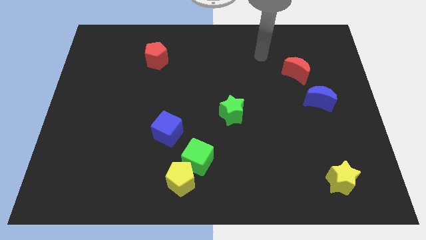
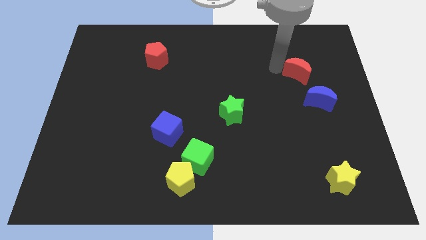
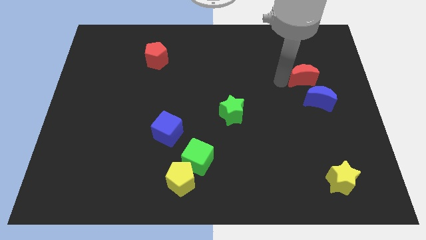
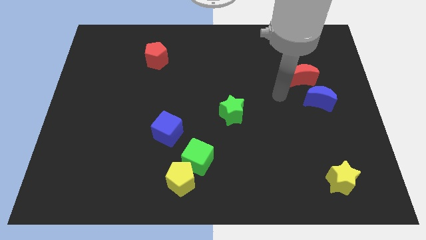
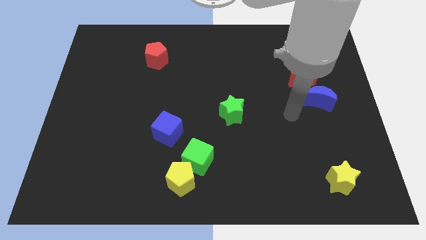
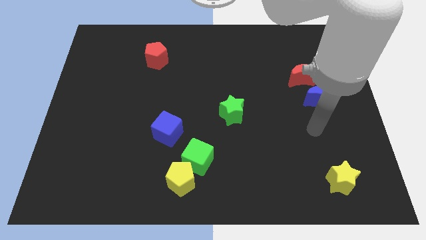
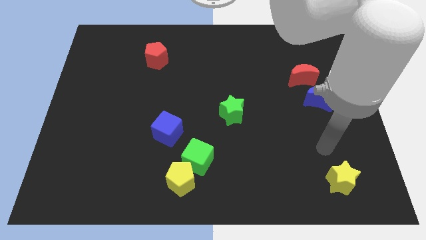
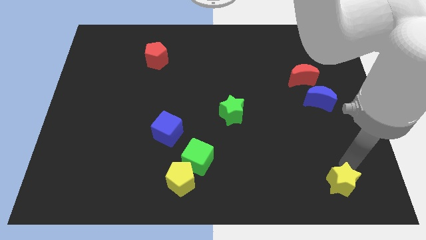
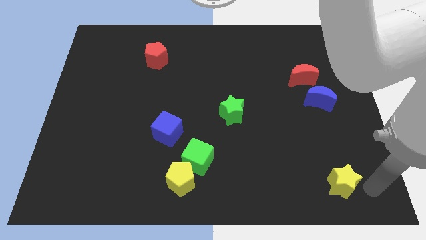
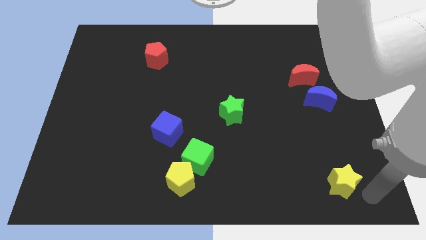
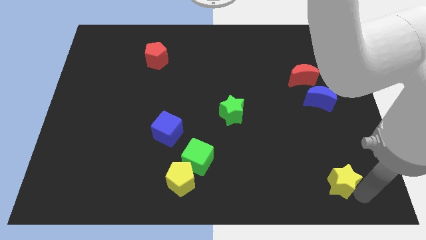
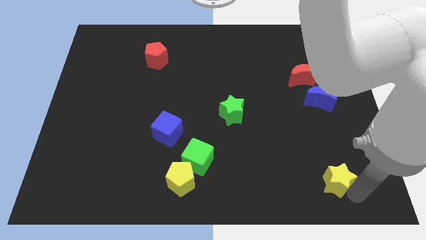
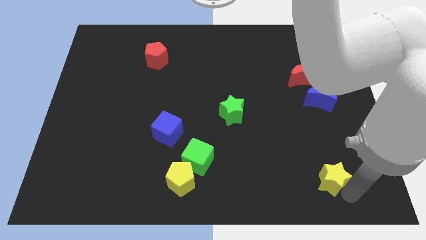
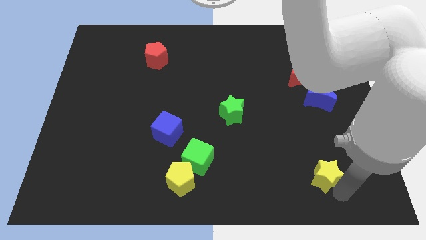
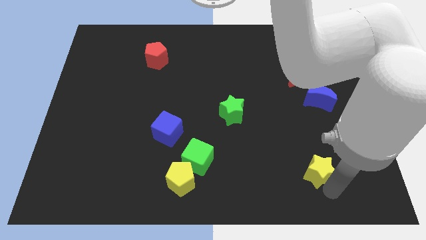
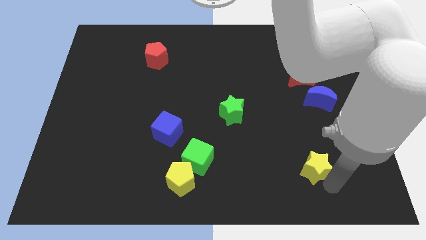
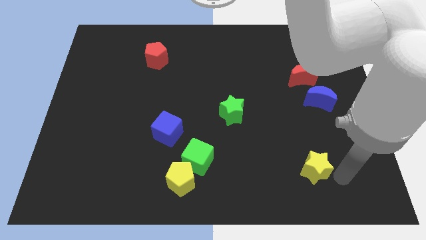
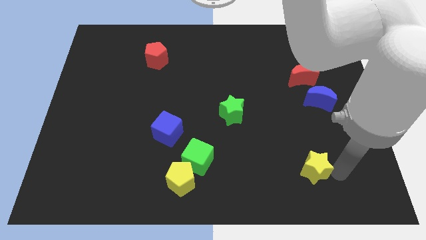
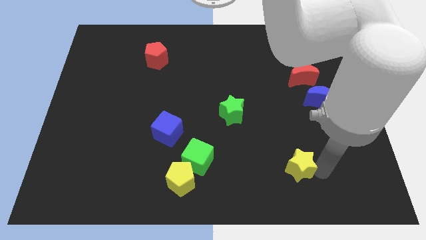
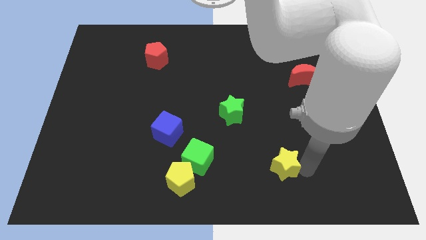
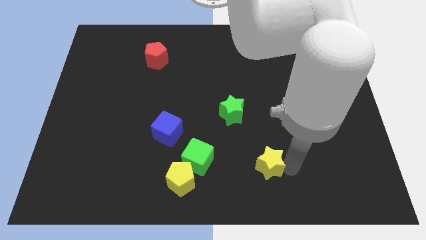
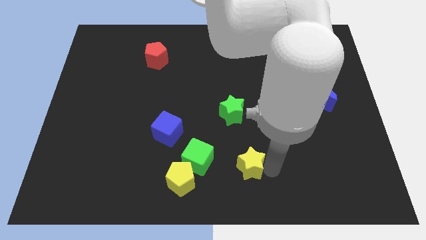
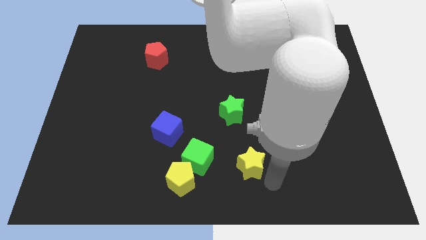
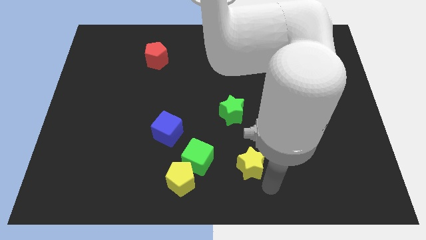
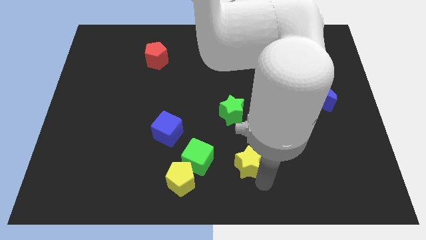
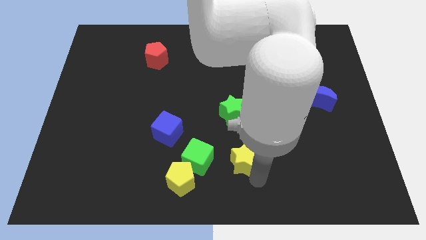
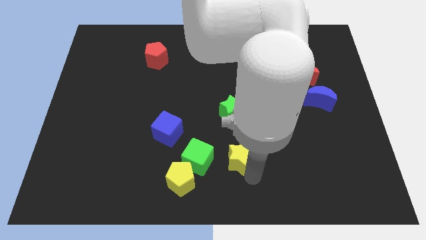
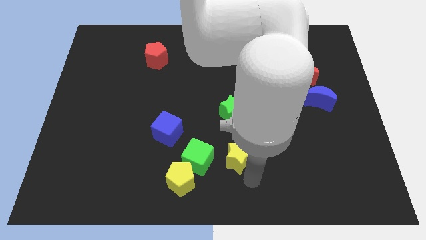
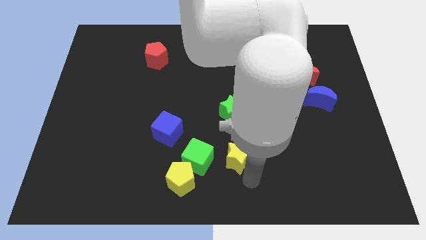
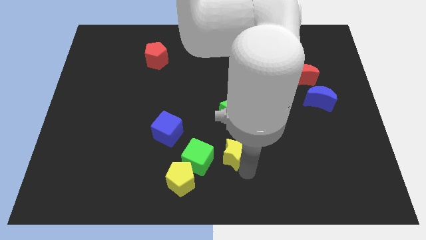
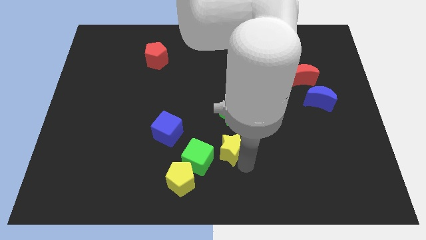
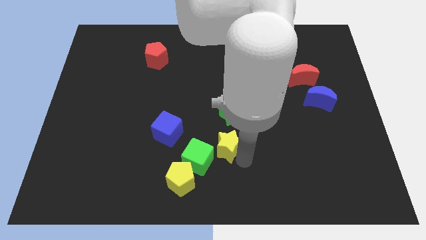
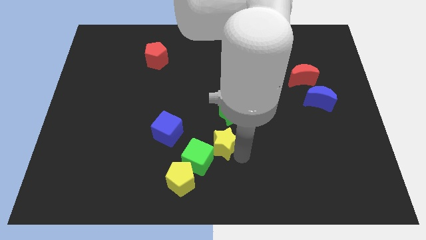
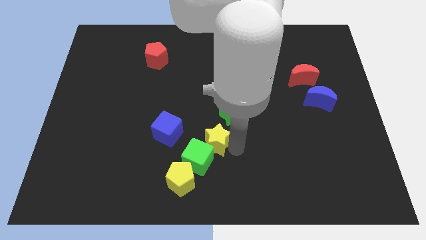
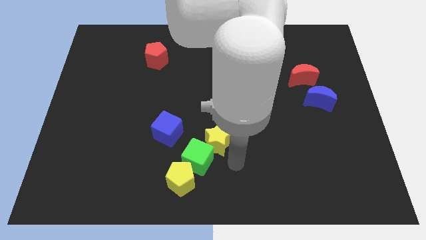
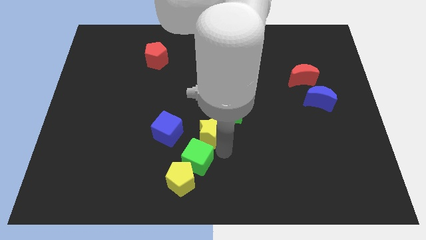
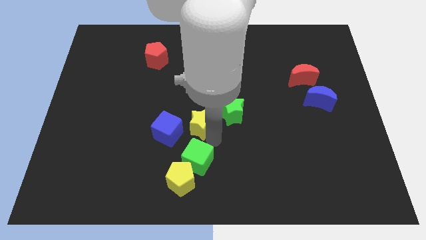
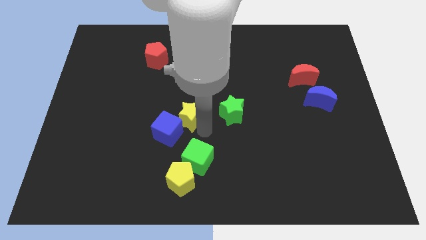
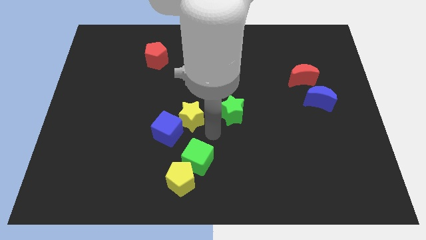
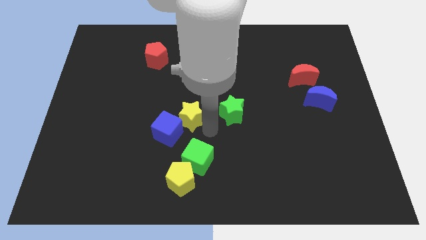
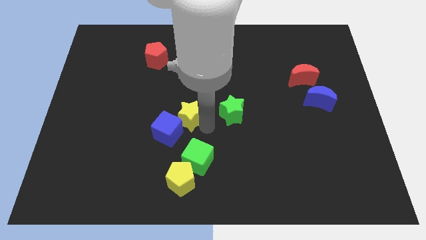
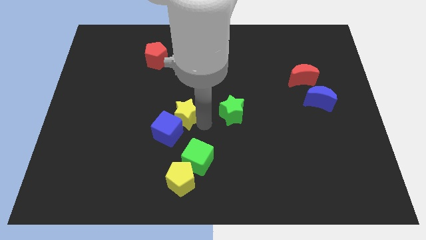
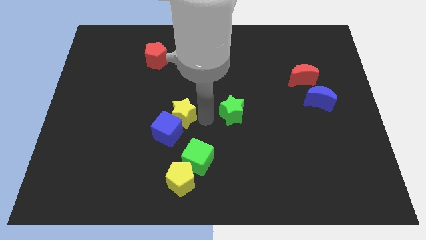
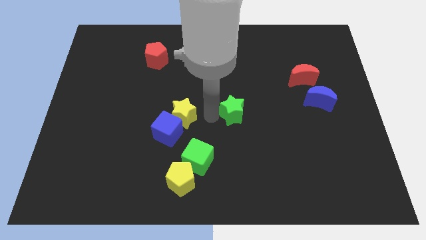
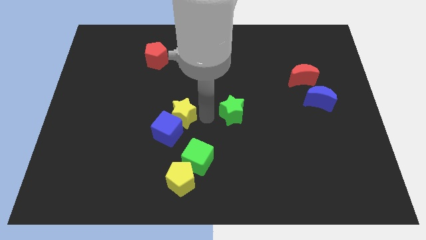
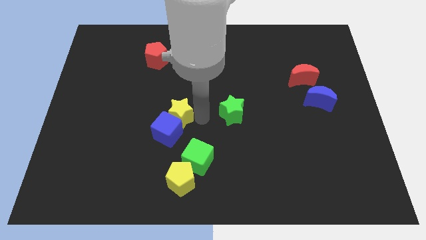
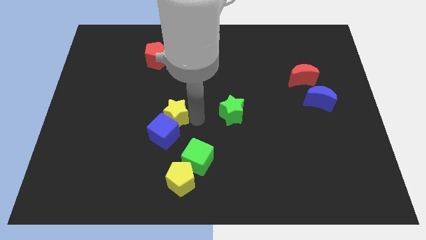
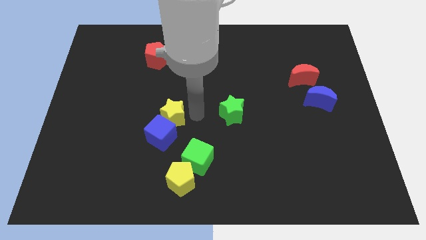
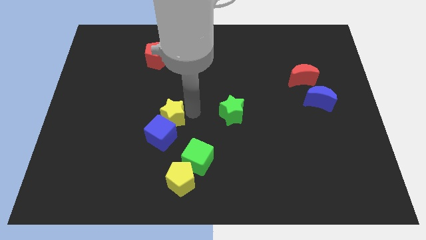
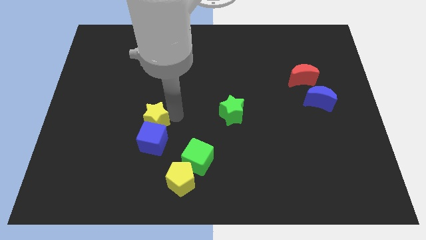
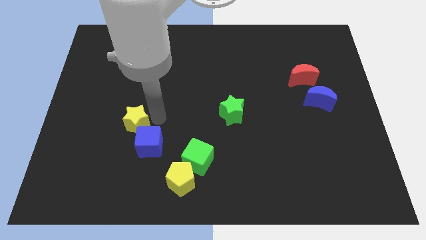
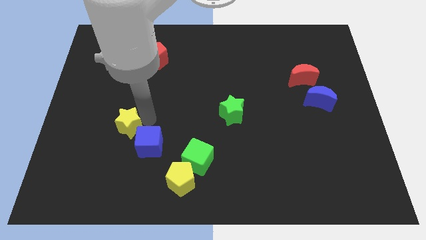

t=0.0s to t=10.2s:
move the yellow star left of the blue cube

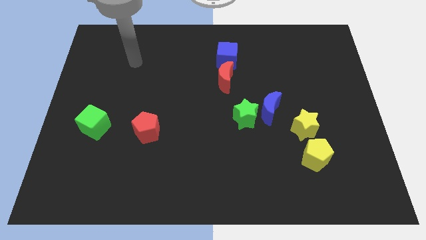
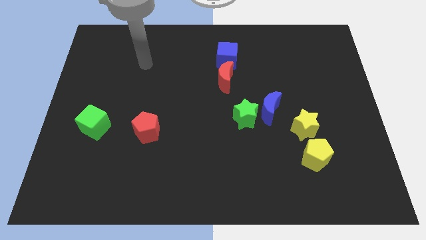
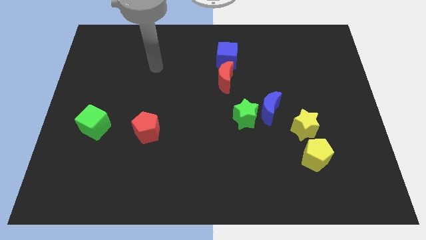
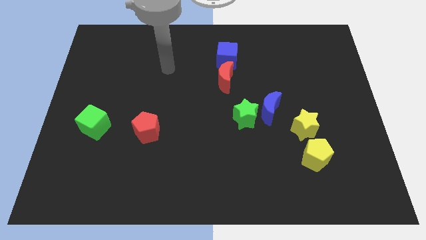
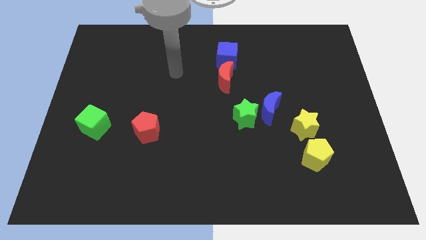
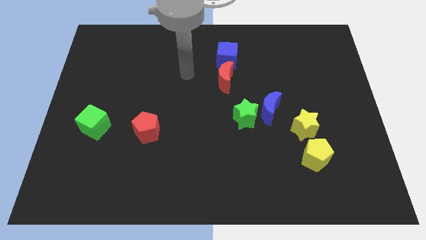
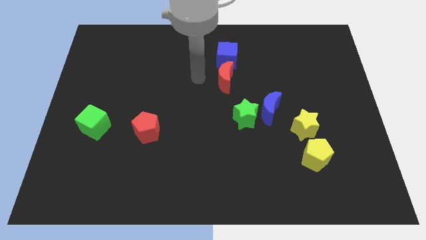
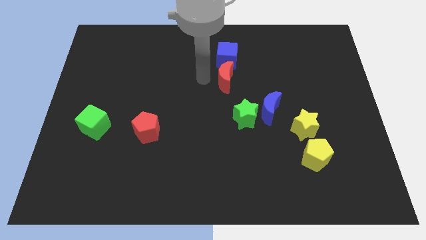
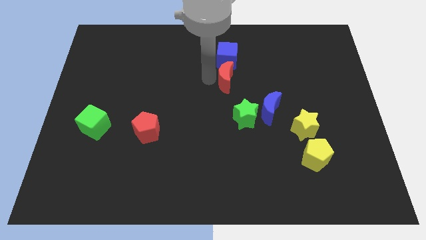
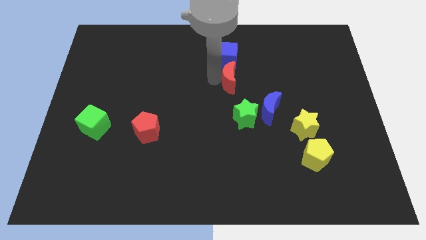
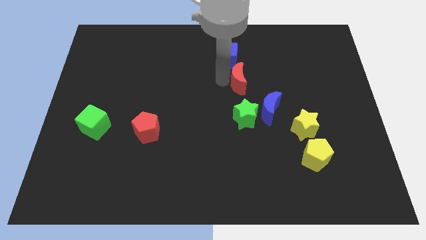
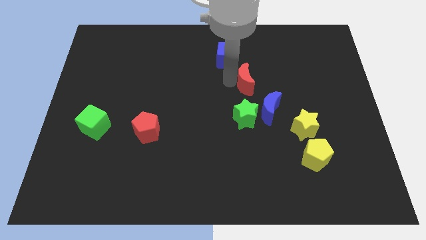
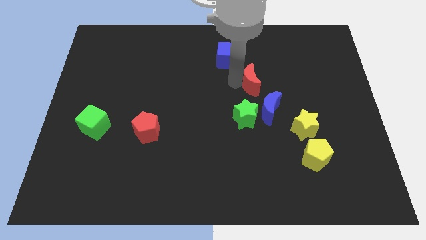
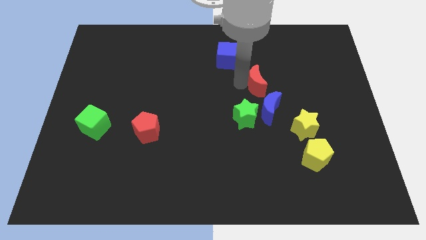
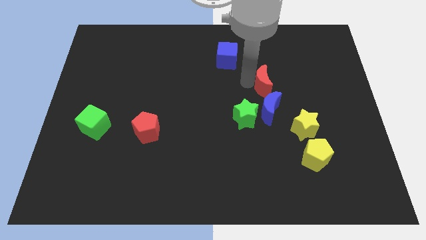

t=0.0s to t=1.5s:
slide the red moon diagonally up and to the right of the green star
